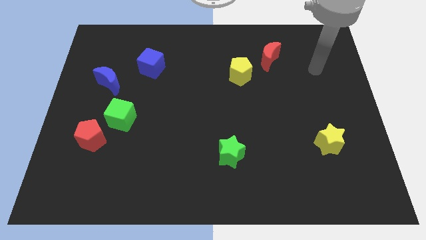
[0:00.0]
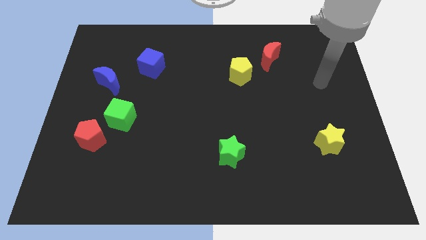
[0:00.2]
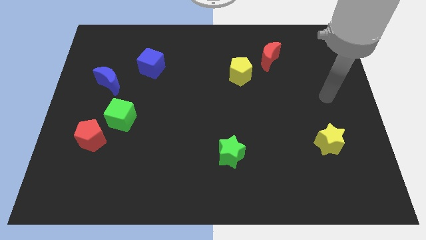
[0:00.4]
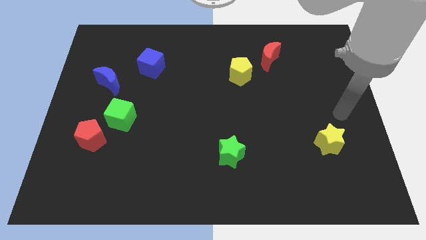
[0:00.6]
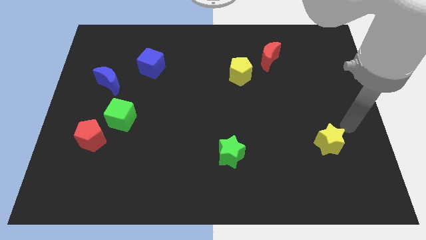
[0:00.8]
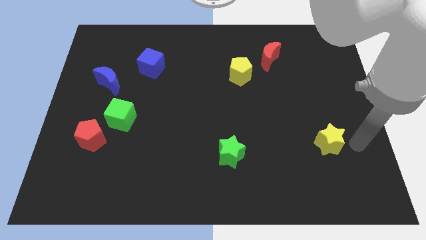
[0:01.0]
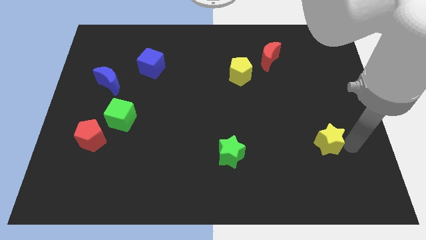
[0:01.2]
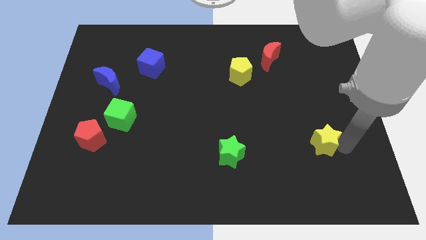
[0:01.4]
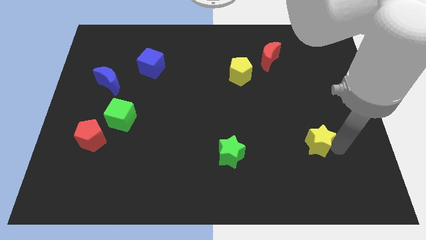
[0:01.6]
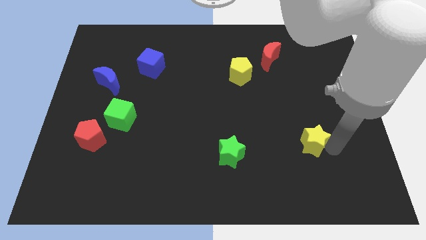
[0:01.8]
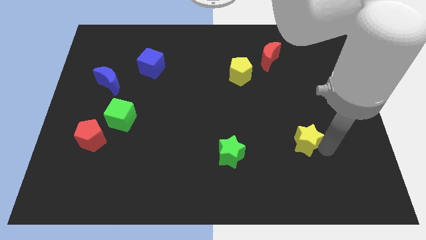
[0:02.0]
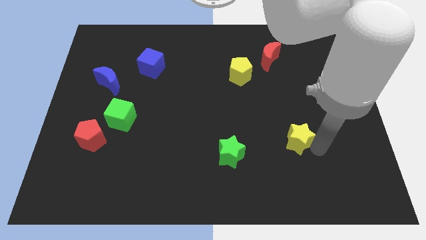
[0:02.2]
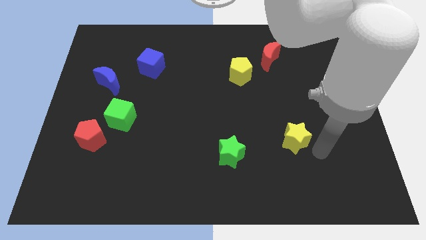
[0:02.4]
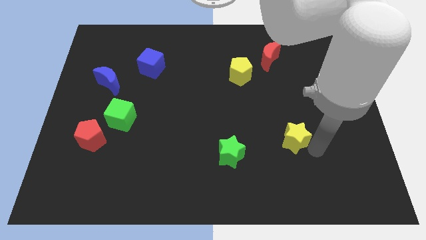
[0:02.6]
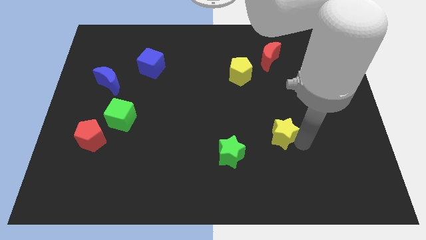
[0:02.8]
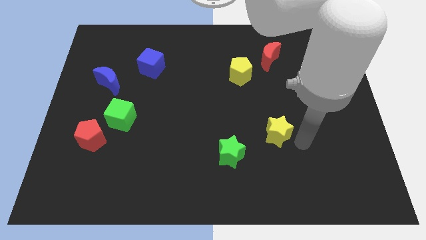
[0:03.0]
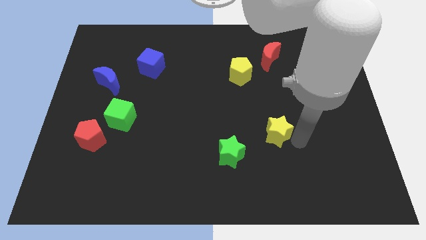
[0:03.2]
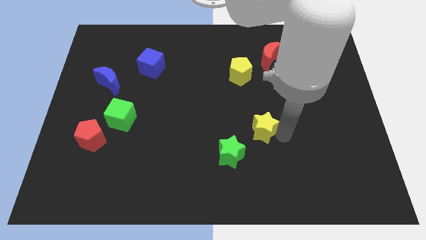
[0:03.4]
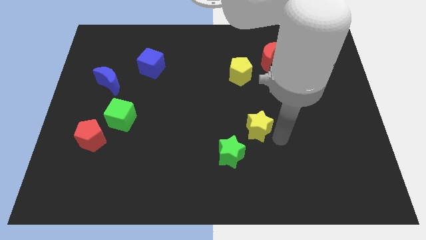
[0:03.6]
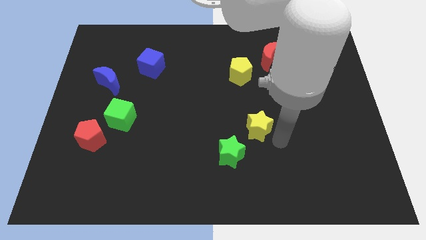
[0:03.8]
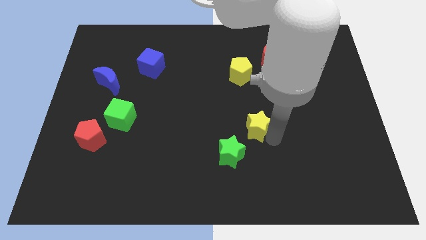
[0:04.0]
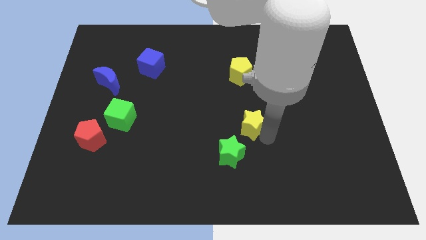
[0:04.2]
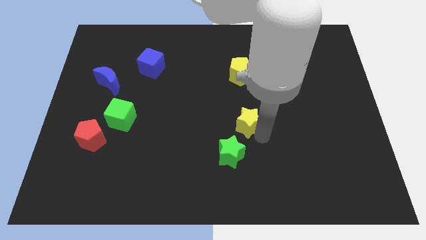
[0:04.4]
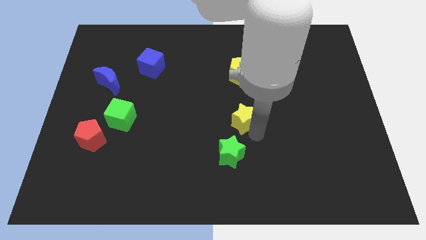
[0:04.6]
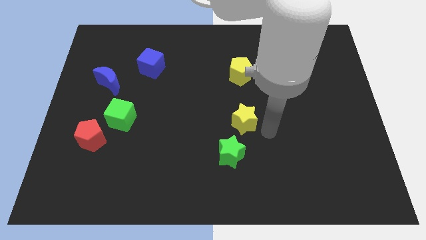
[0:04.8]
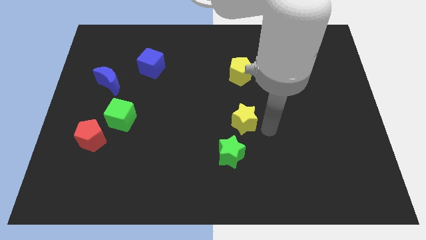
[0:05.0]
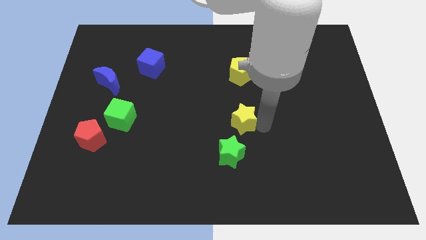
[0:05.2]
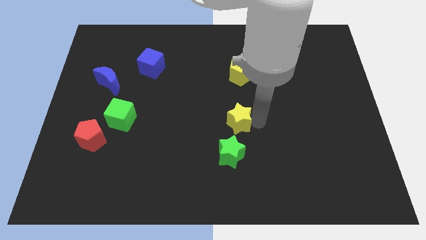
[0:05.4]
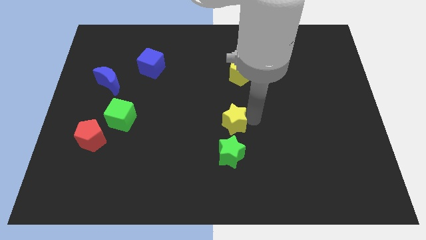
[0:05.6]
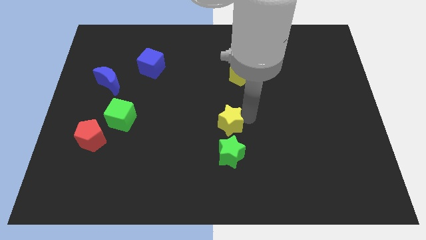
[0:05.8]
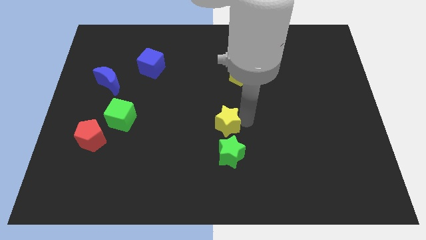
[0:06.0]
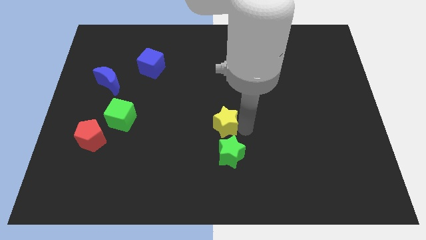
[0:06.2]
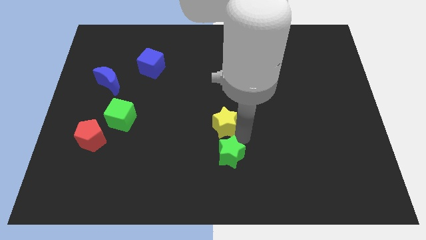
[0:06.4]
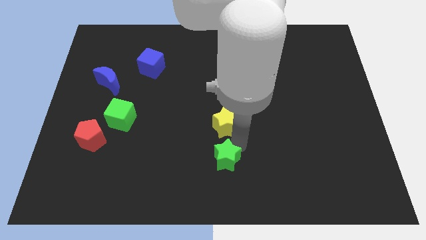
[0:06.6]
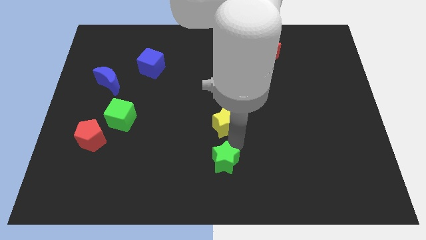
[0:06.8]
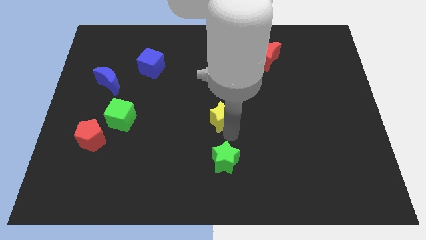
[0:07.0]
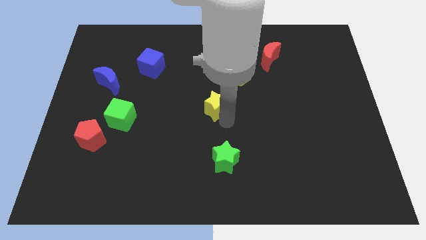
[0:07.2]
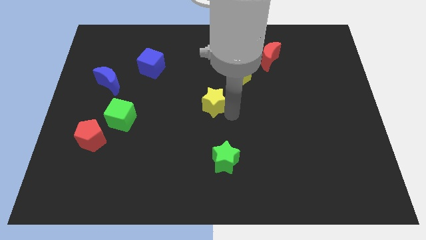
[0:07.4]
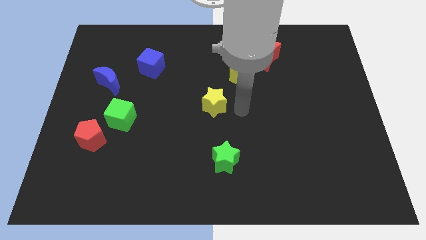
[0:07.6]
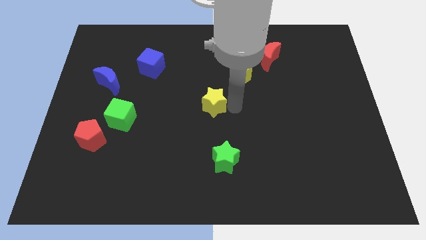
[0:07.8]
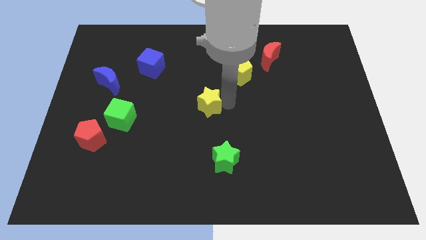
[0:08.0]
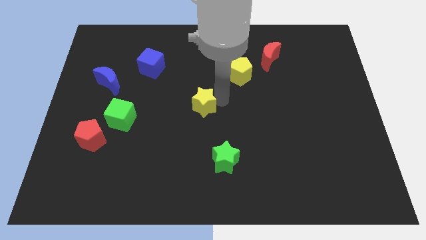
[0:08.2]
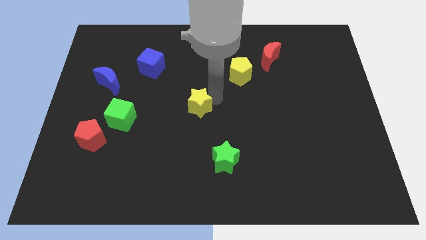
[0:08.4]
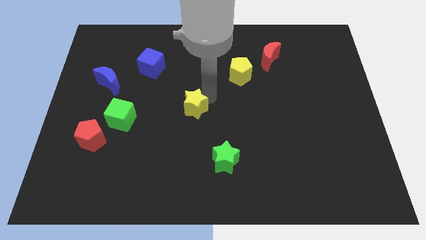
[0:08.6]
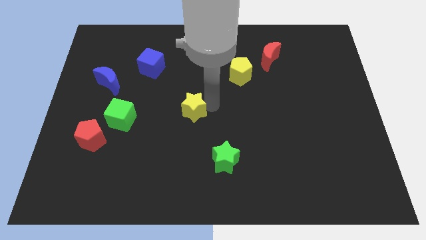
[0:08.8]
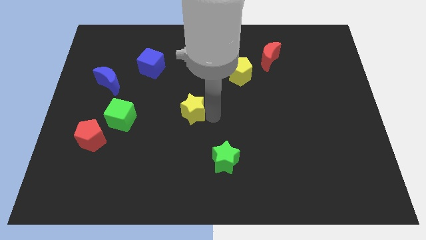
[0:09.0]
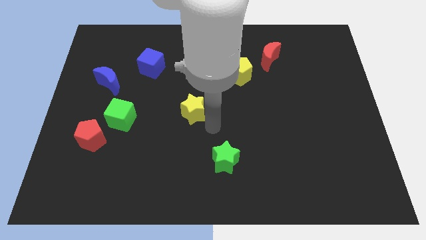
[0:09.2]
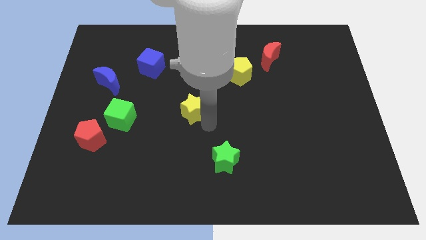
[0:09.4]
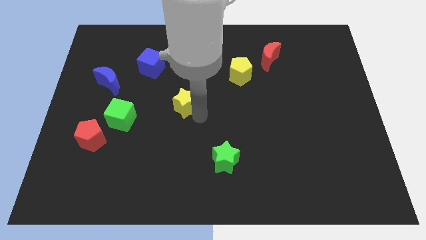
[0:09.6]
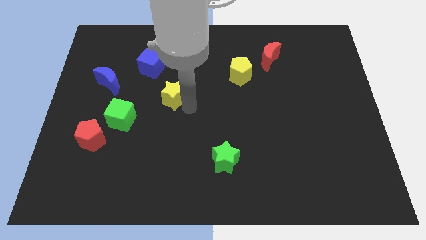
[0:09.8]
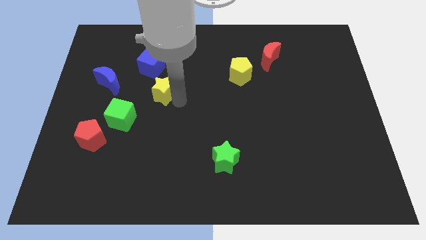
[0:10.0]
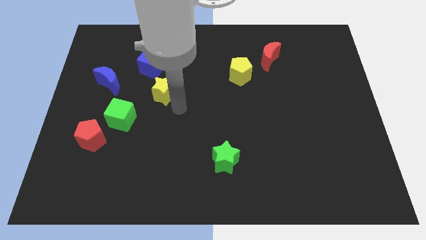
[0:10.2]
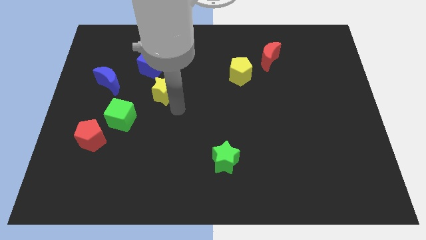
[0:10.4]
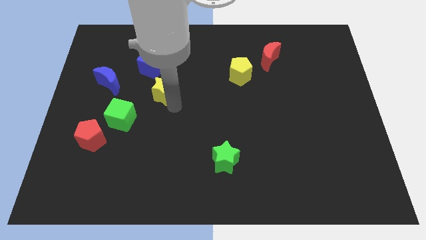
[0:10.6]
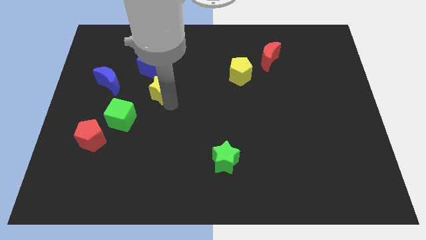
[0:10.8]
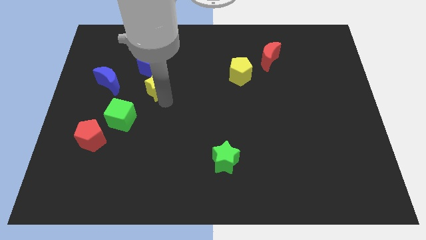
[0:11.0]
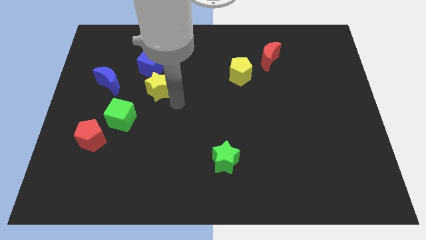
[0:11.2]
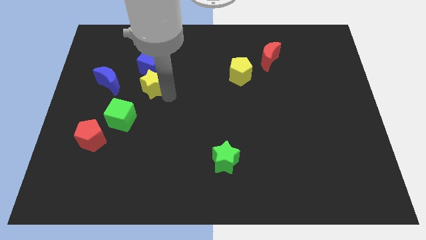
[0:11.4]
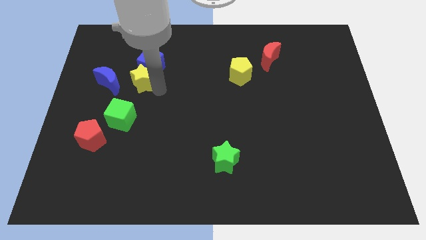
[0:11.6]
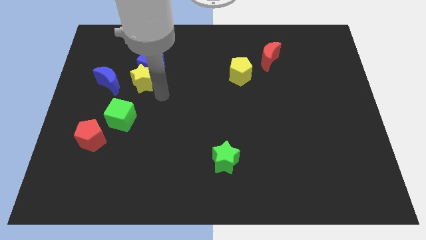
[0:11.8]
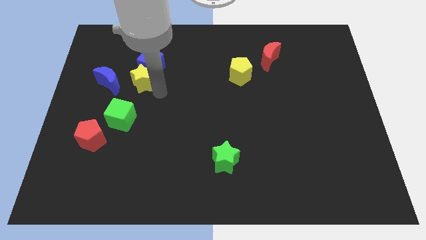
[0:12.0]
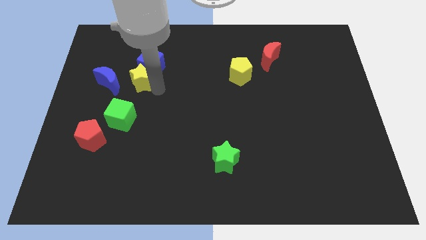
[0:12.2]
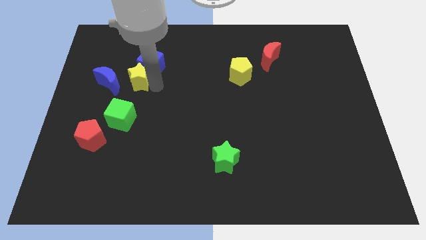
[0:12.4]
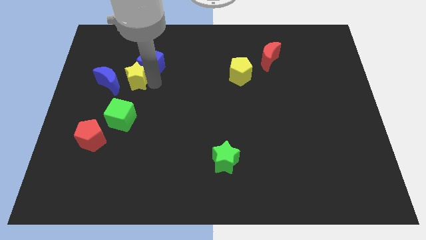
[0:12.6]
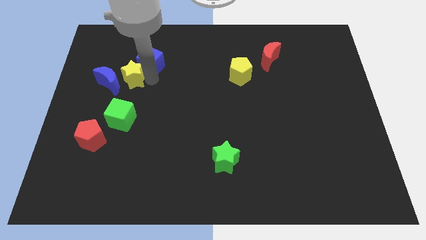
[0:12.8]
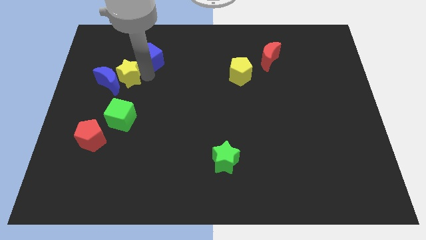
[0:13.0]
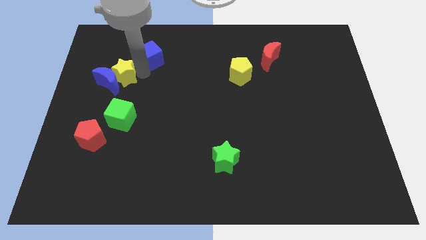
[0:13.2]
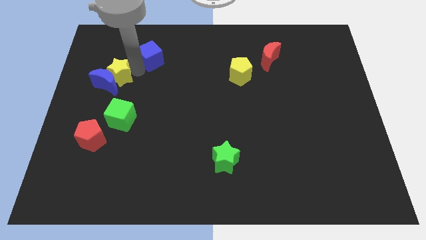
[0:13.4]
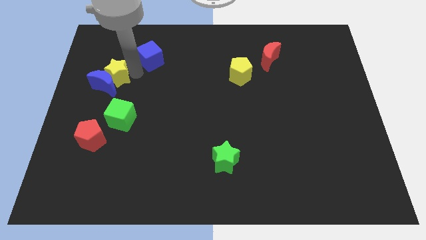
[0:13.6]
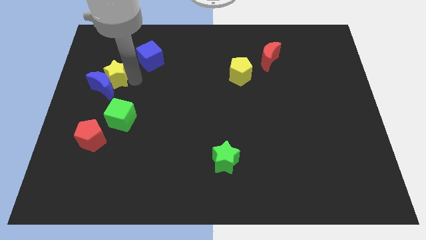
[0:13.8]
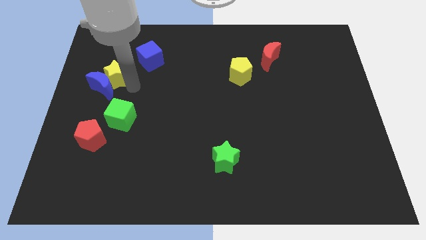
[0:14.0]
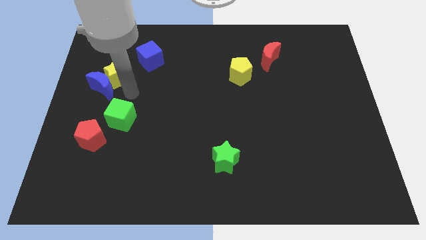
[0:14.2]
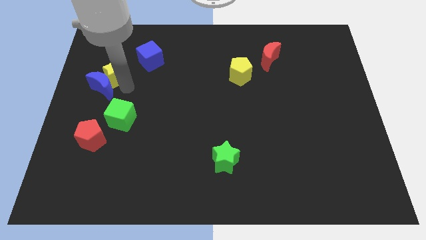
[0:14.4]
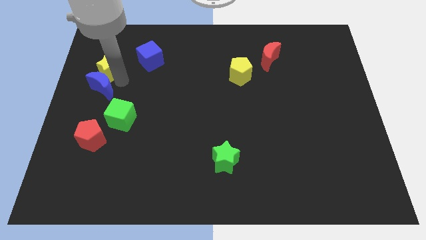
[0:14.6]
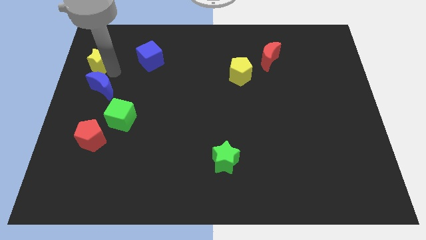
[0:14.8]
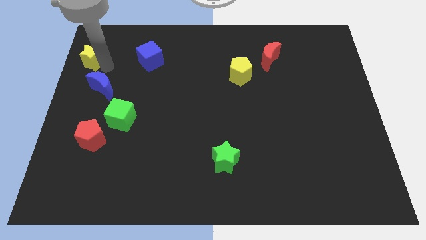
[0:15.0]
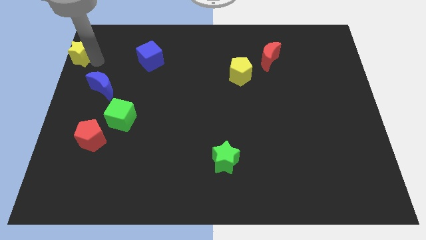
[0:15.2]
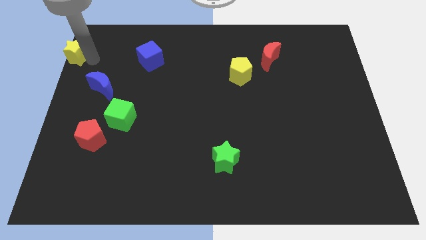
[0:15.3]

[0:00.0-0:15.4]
push the yellow star to the top left corner
